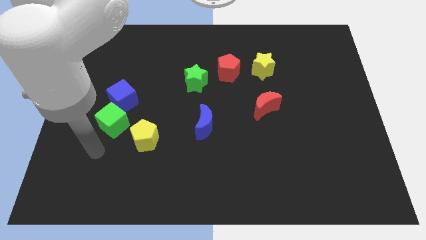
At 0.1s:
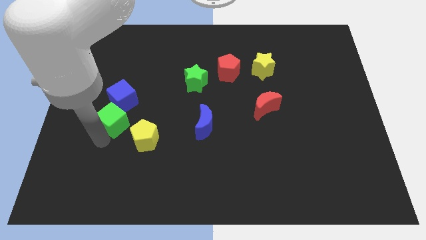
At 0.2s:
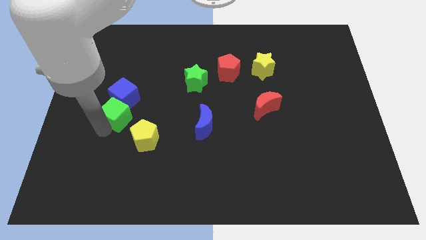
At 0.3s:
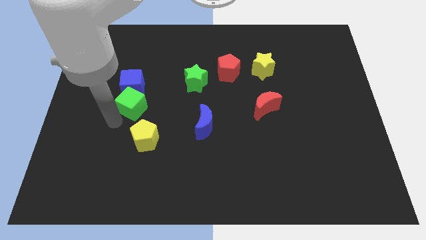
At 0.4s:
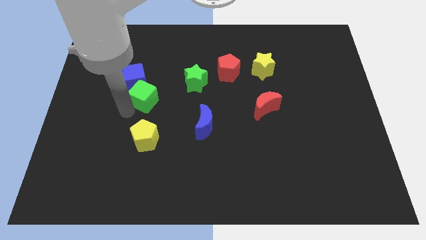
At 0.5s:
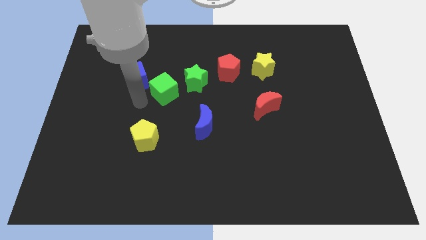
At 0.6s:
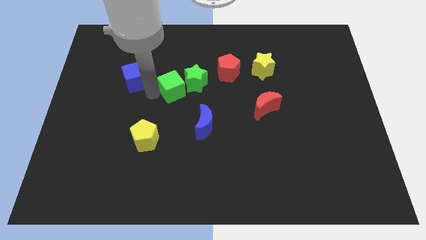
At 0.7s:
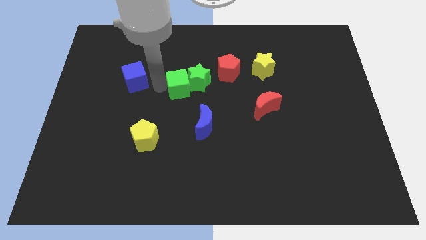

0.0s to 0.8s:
move the blue cube away from the green cube

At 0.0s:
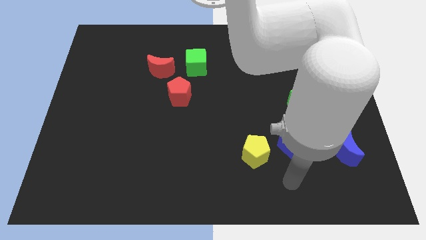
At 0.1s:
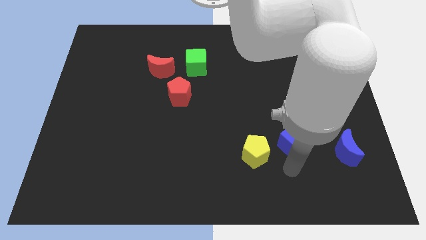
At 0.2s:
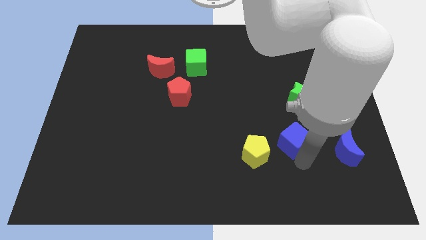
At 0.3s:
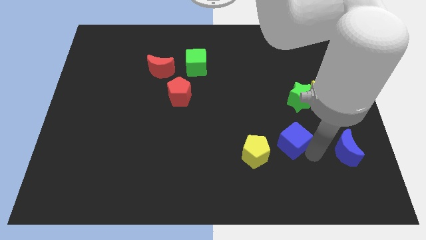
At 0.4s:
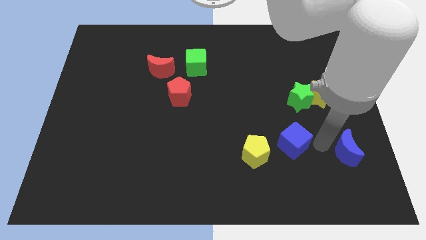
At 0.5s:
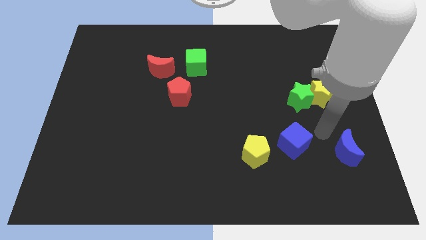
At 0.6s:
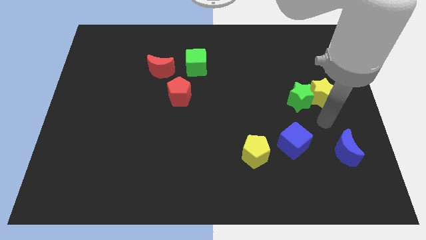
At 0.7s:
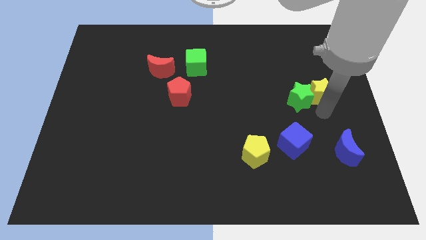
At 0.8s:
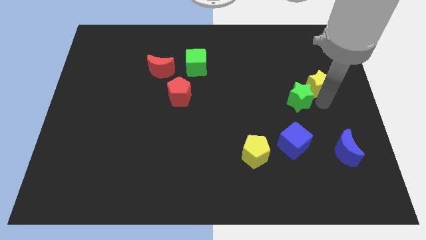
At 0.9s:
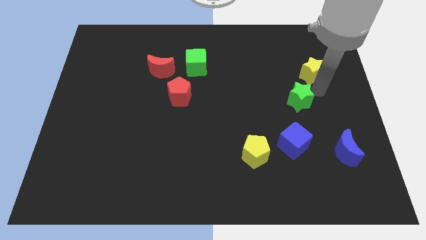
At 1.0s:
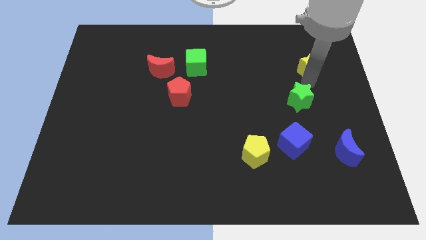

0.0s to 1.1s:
pull the green star apart from the yellow star

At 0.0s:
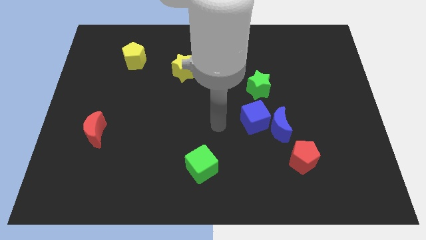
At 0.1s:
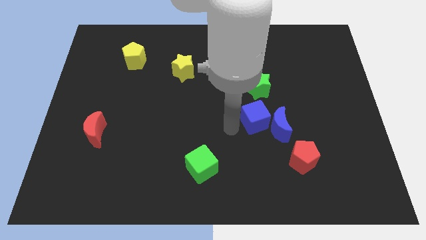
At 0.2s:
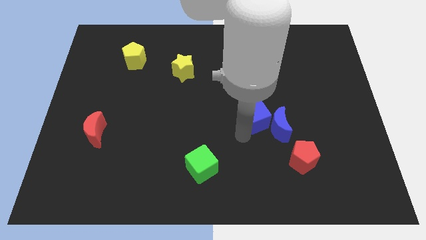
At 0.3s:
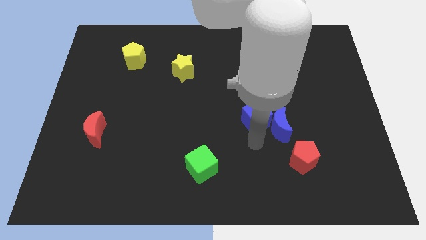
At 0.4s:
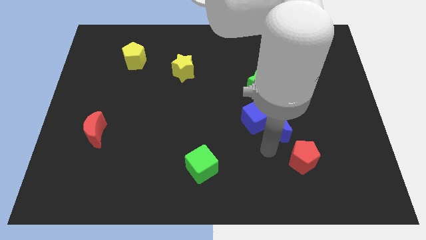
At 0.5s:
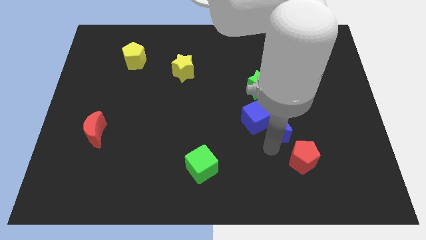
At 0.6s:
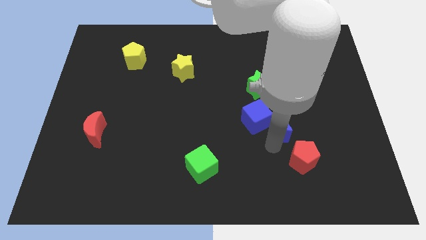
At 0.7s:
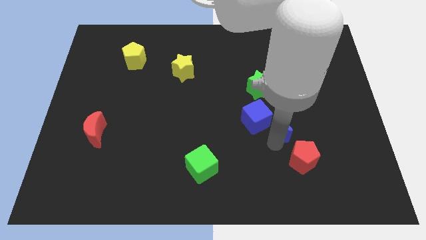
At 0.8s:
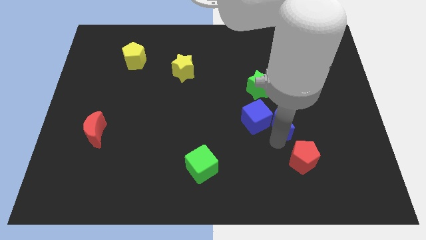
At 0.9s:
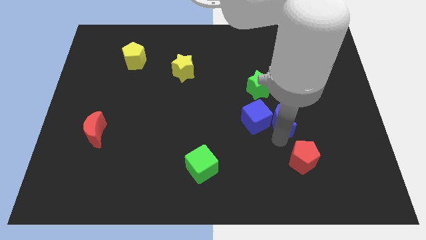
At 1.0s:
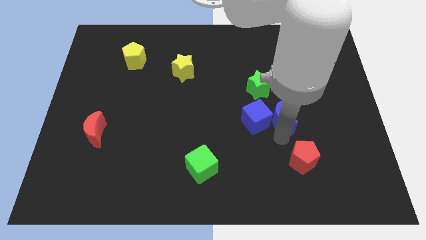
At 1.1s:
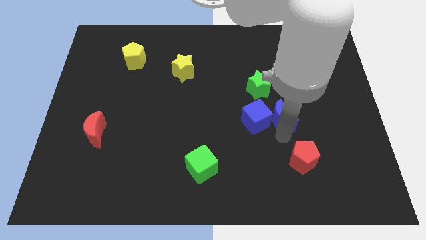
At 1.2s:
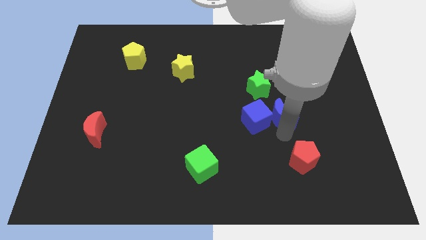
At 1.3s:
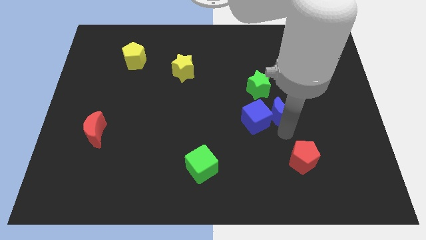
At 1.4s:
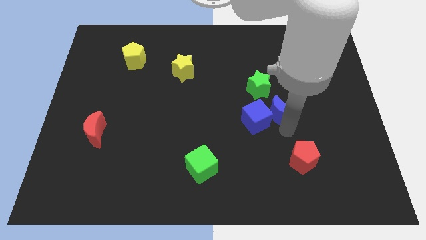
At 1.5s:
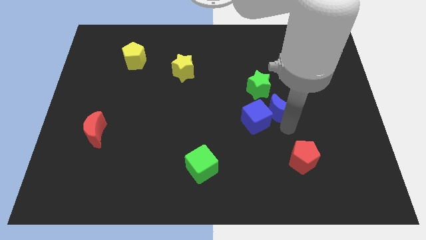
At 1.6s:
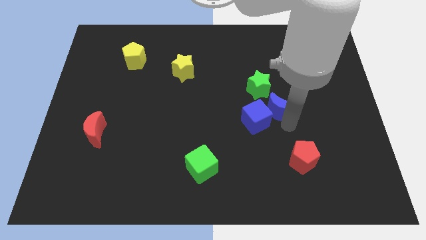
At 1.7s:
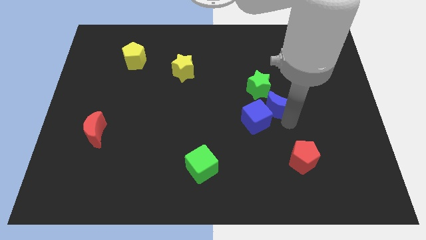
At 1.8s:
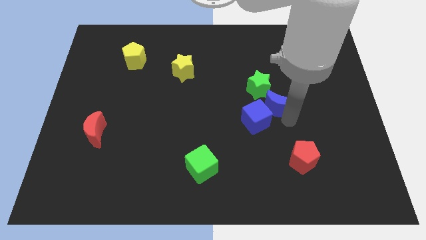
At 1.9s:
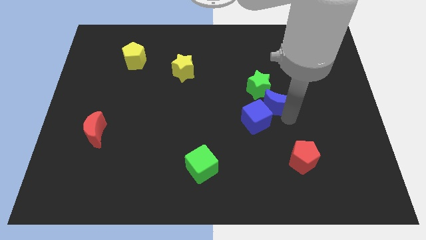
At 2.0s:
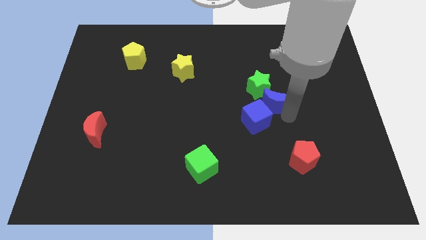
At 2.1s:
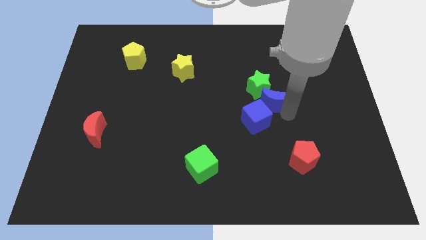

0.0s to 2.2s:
move the blue moon away from the blue cube and red pentagon

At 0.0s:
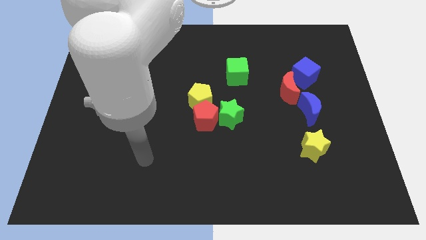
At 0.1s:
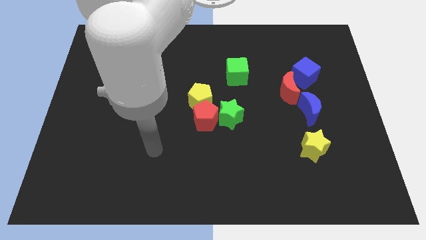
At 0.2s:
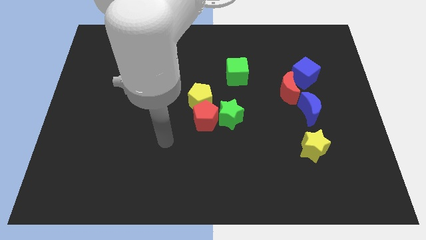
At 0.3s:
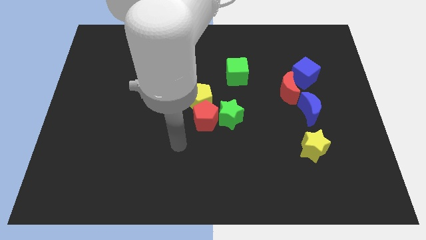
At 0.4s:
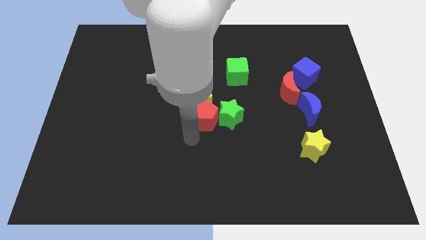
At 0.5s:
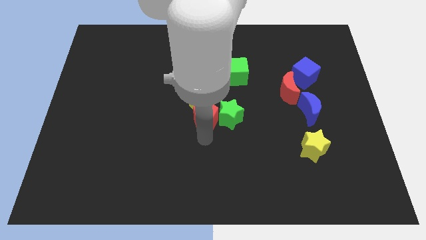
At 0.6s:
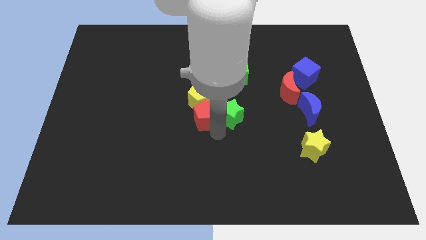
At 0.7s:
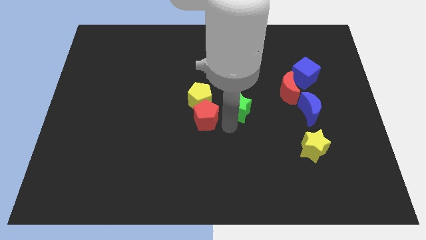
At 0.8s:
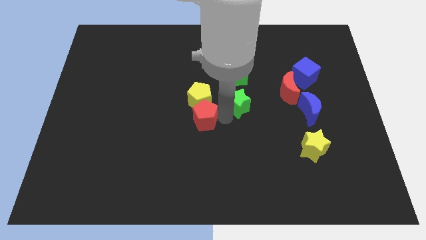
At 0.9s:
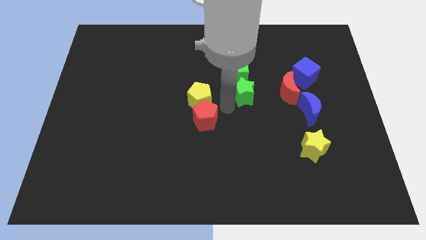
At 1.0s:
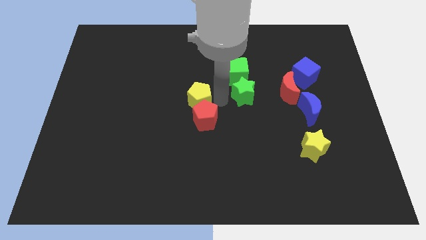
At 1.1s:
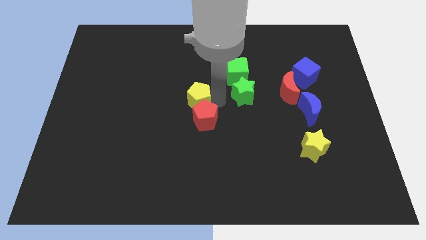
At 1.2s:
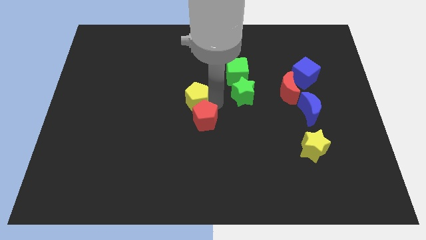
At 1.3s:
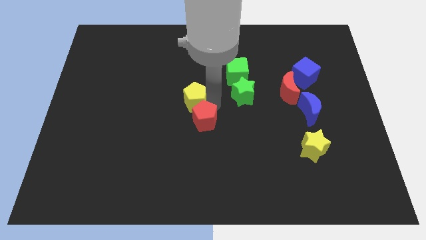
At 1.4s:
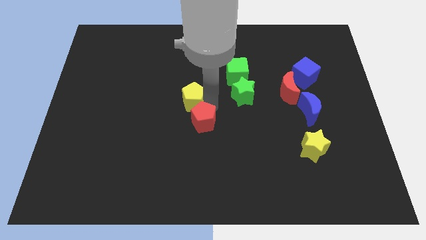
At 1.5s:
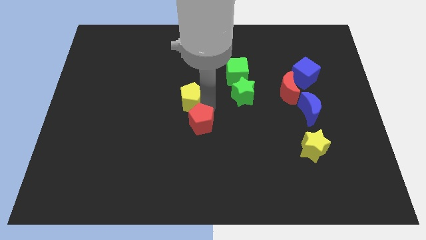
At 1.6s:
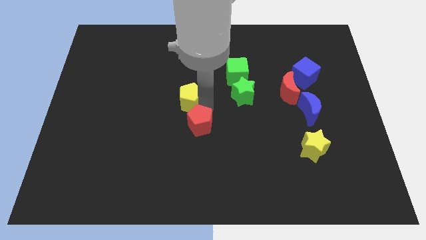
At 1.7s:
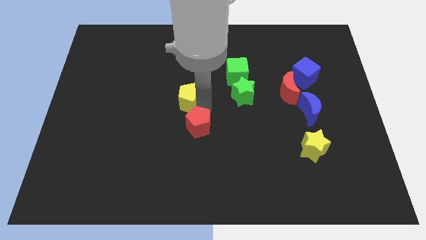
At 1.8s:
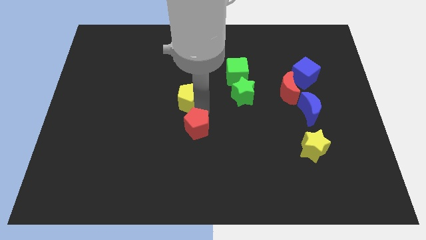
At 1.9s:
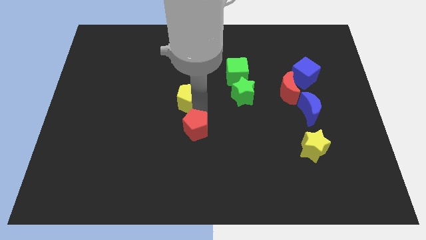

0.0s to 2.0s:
pull the red pentagon apart from the yellow pentagon and green star

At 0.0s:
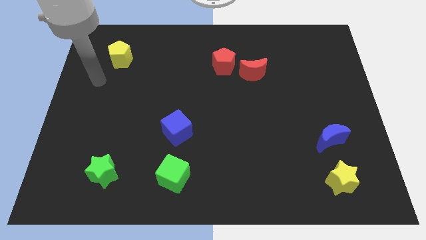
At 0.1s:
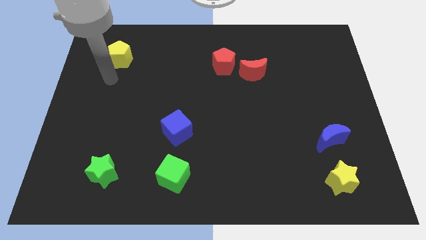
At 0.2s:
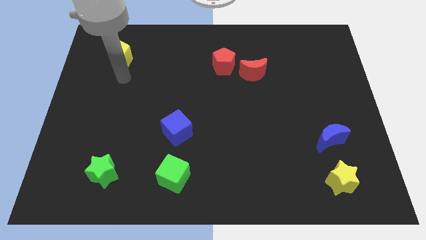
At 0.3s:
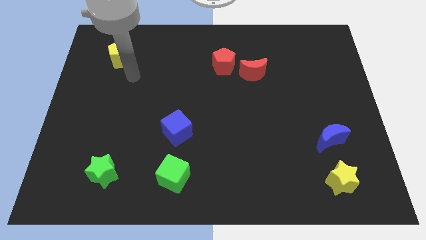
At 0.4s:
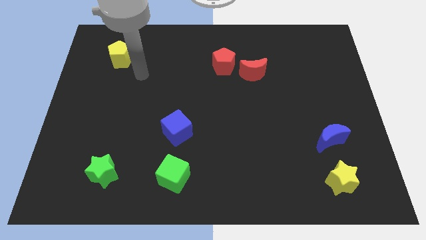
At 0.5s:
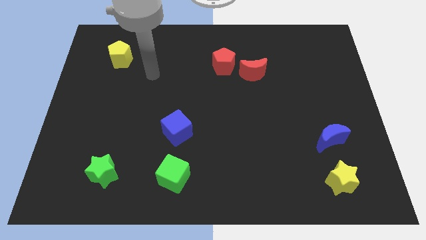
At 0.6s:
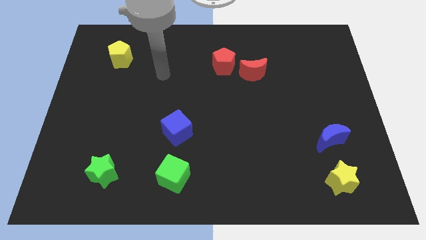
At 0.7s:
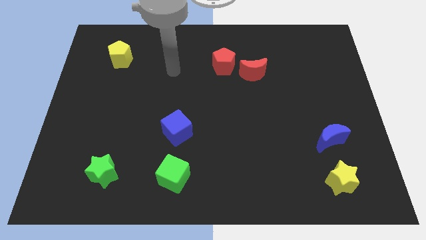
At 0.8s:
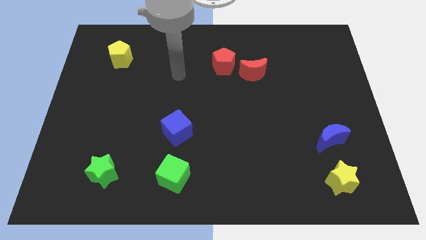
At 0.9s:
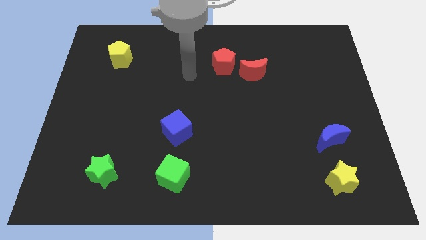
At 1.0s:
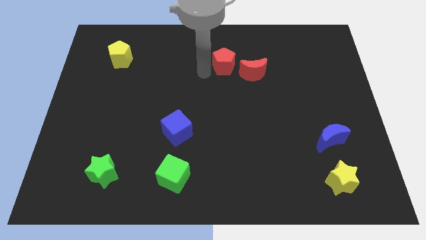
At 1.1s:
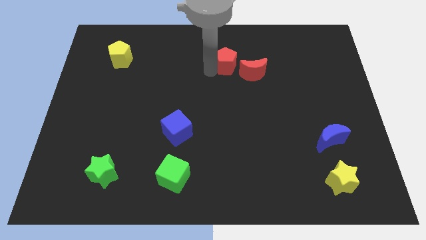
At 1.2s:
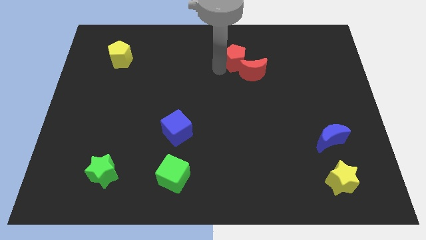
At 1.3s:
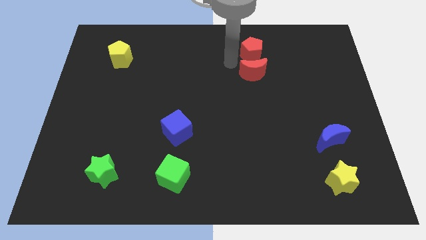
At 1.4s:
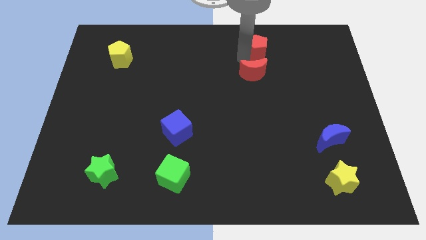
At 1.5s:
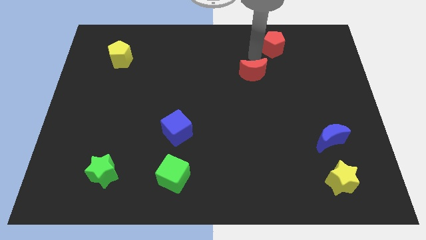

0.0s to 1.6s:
separate the red moon from the red pentagon

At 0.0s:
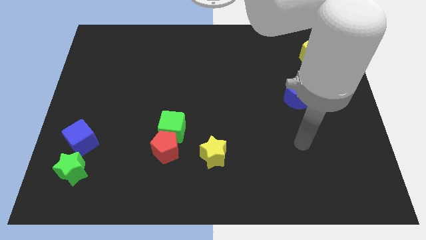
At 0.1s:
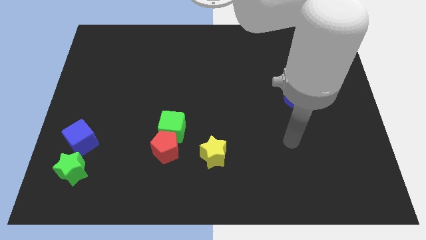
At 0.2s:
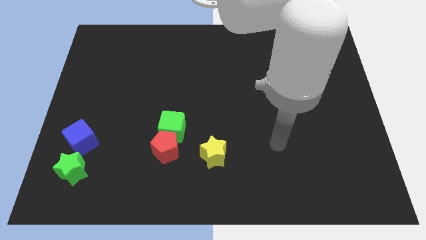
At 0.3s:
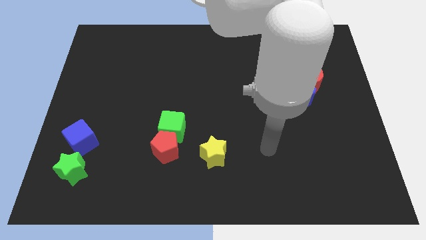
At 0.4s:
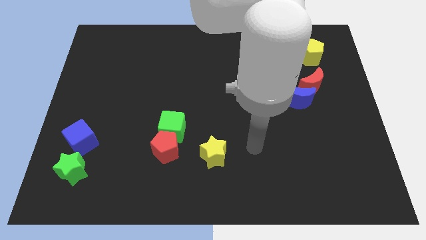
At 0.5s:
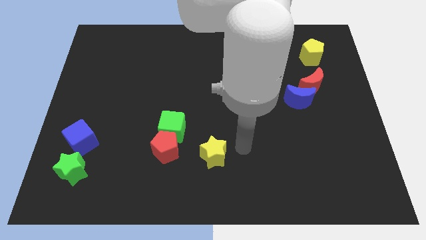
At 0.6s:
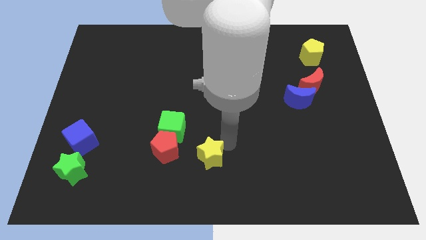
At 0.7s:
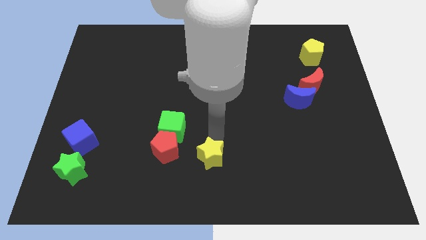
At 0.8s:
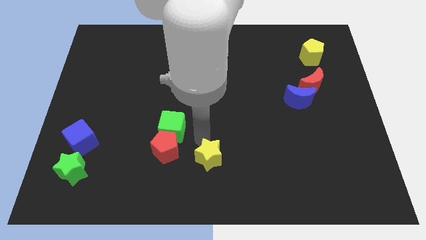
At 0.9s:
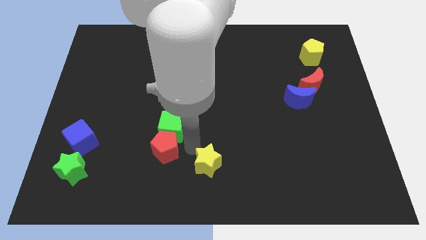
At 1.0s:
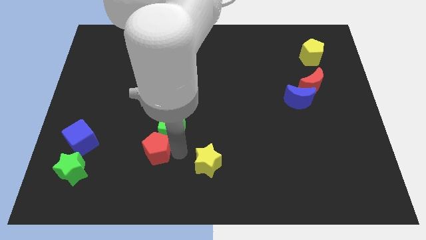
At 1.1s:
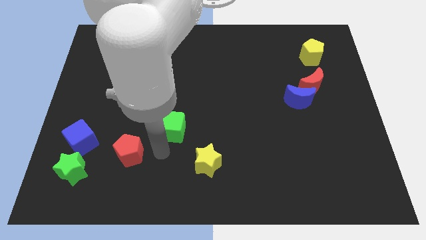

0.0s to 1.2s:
move the green cube away from the red pentagon

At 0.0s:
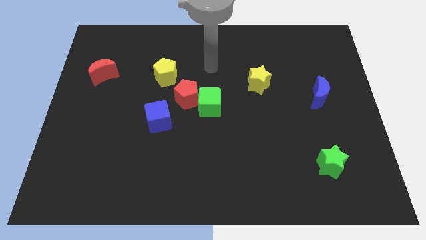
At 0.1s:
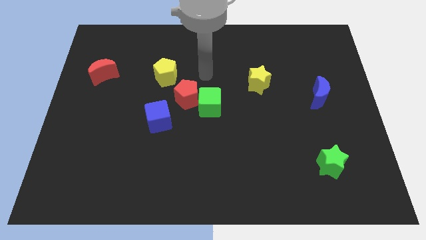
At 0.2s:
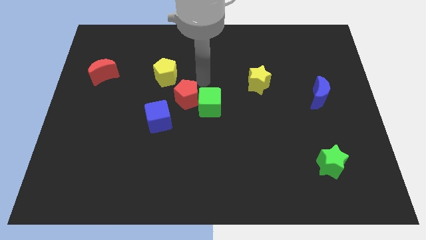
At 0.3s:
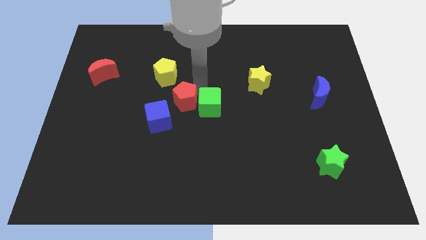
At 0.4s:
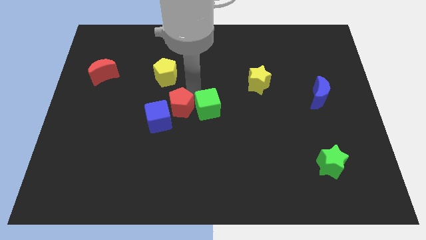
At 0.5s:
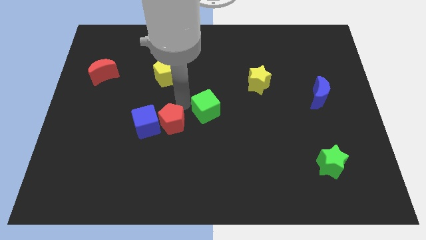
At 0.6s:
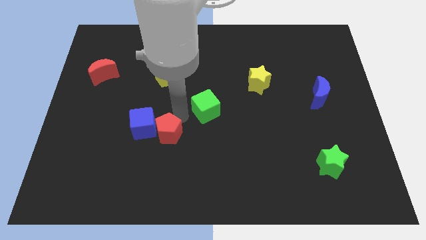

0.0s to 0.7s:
separate the green cube from the red pentagon
